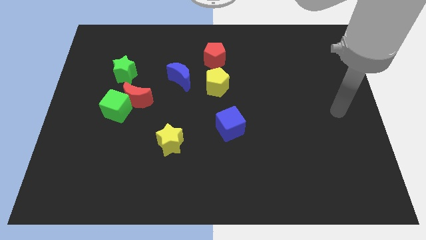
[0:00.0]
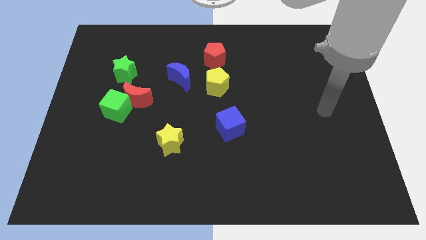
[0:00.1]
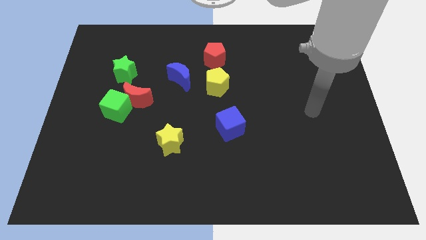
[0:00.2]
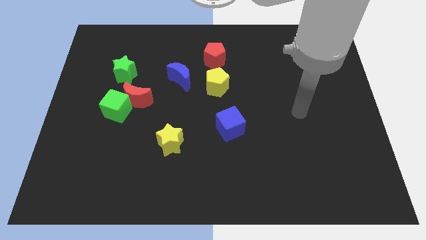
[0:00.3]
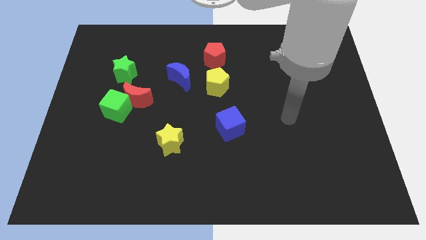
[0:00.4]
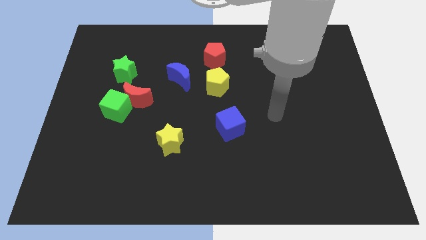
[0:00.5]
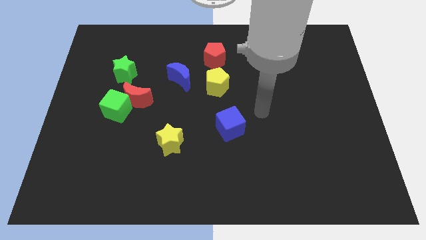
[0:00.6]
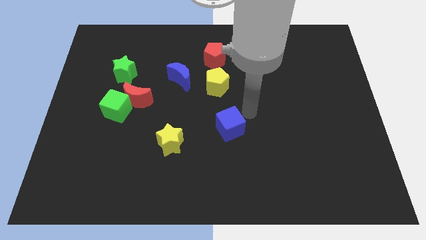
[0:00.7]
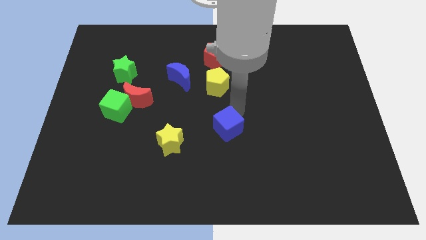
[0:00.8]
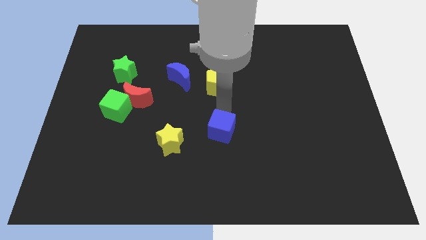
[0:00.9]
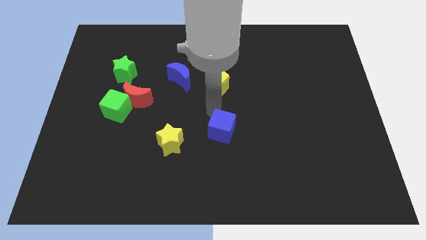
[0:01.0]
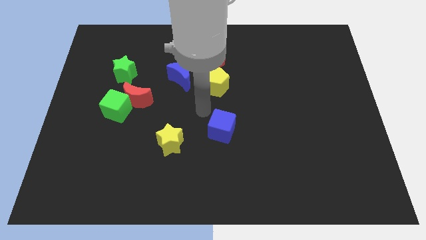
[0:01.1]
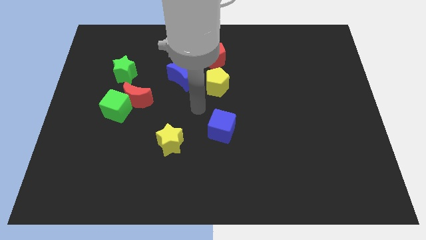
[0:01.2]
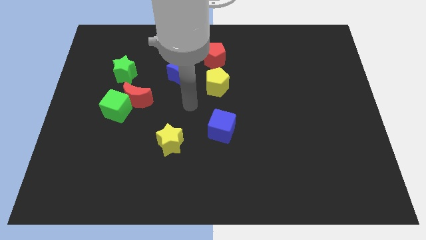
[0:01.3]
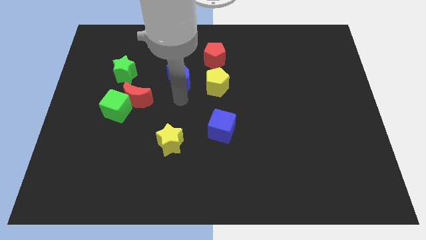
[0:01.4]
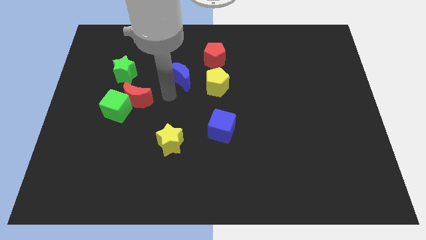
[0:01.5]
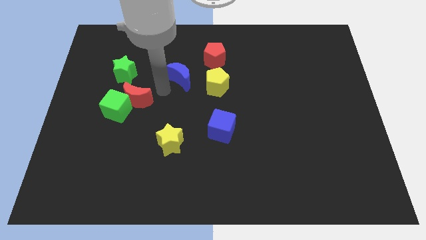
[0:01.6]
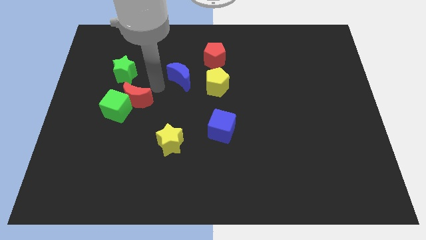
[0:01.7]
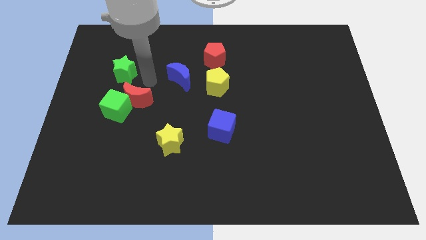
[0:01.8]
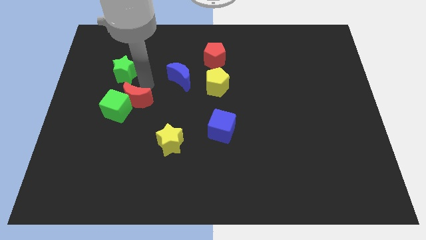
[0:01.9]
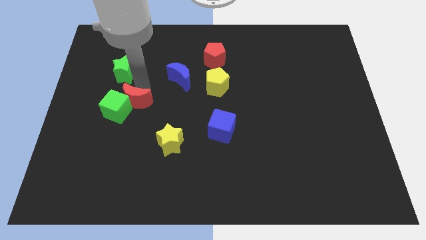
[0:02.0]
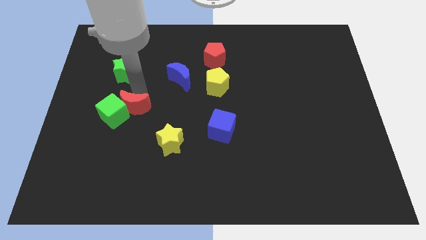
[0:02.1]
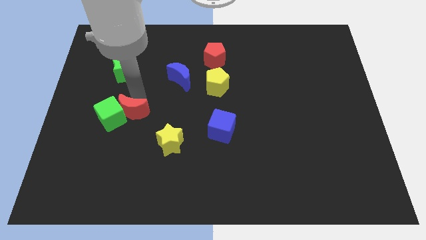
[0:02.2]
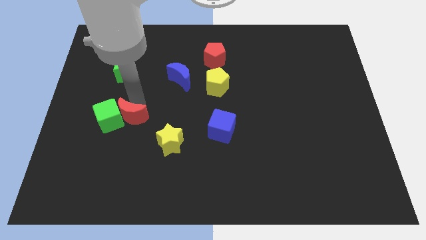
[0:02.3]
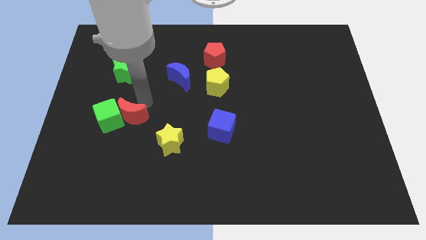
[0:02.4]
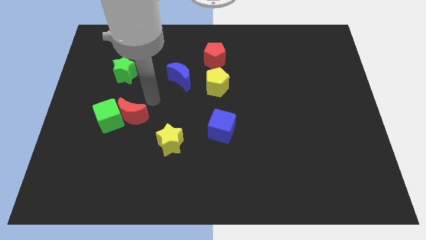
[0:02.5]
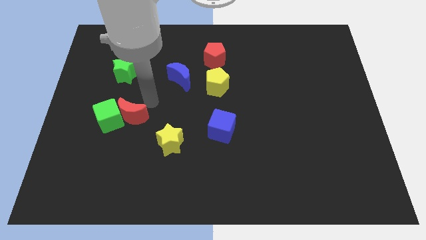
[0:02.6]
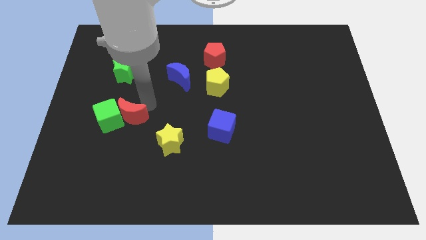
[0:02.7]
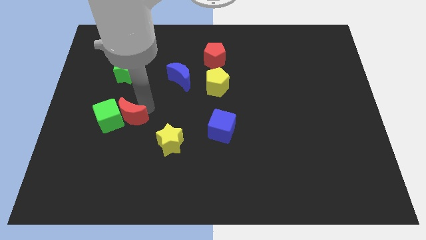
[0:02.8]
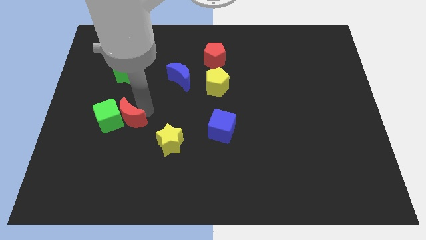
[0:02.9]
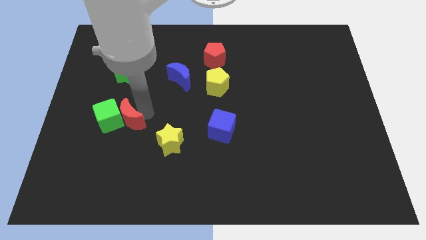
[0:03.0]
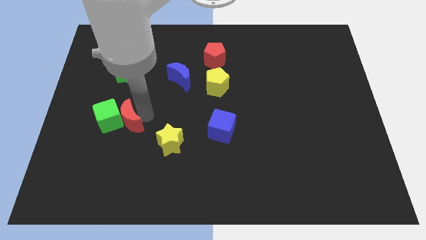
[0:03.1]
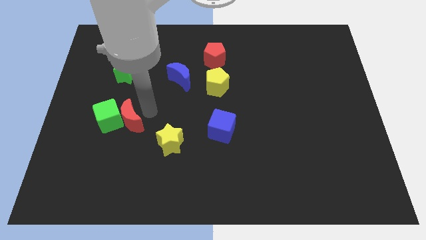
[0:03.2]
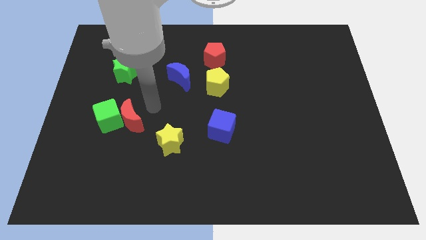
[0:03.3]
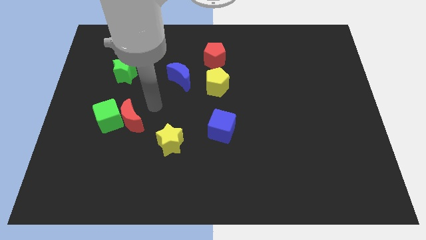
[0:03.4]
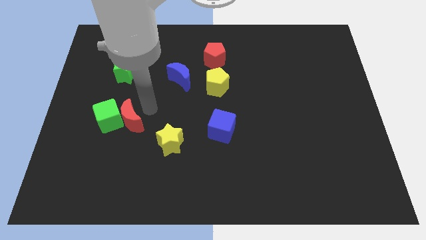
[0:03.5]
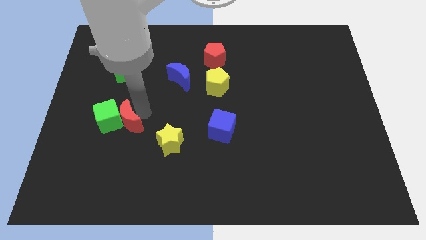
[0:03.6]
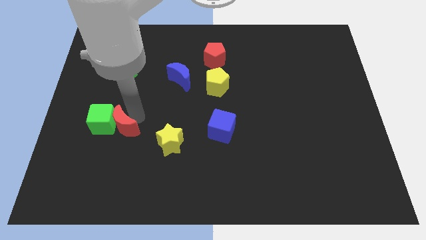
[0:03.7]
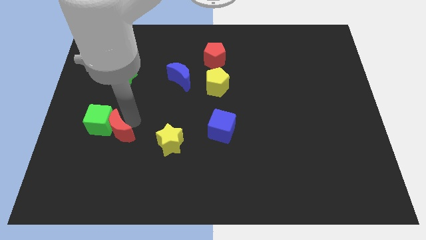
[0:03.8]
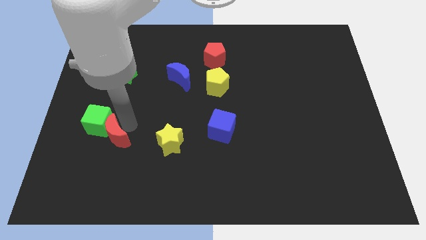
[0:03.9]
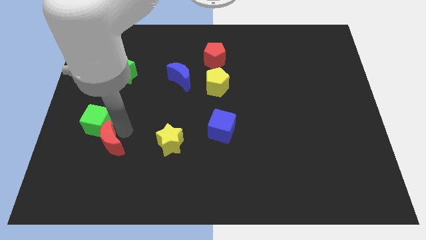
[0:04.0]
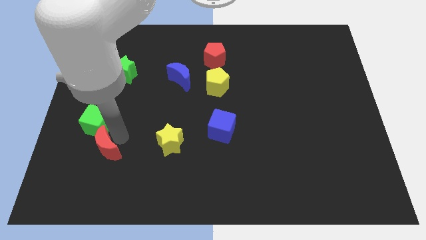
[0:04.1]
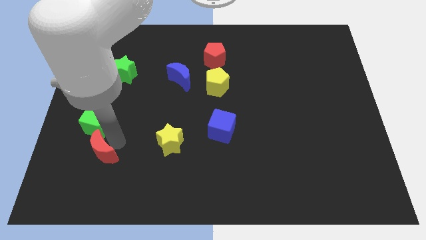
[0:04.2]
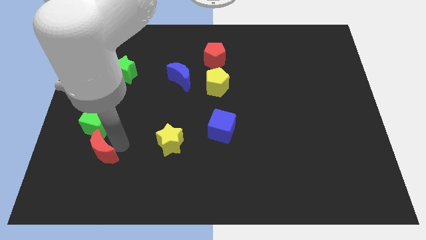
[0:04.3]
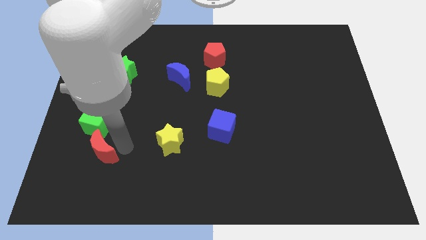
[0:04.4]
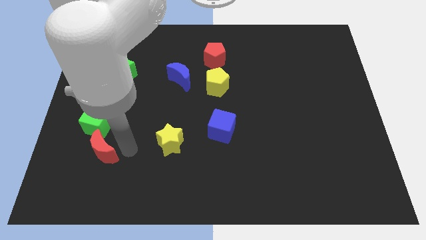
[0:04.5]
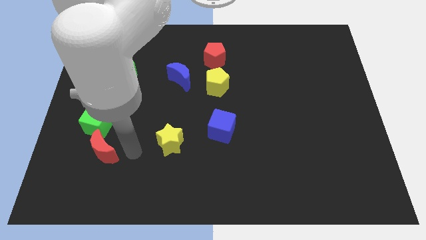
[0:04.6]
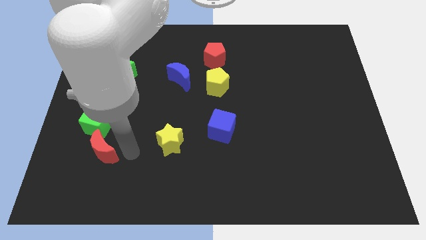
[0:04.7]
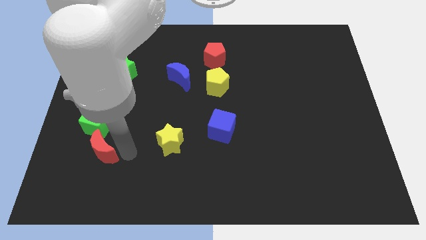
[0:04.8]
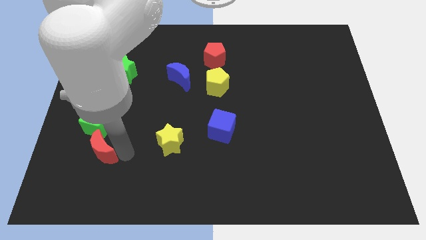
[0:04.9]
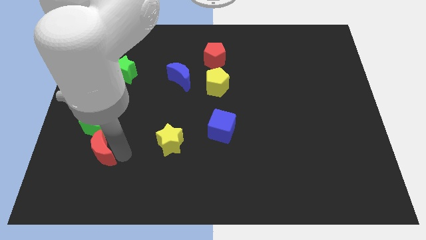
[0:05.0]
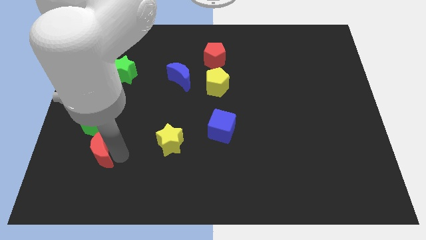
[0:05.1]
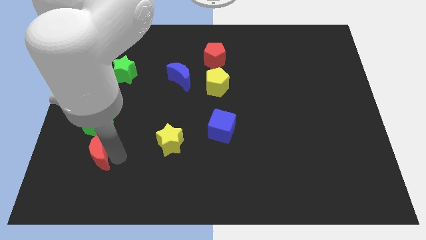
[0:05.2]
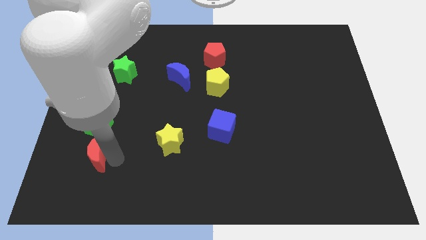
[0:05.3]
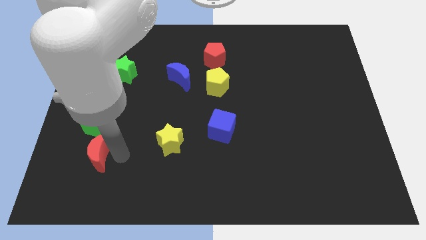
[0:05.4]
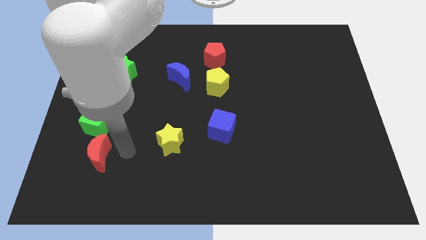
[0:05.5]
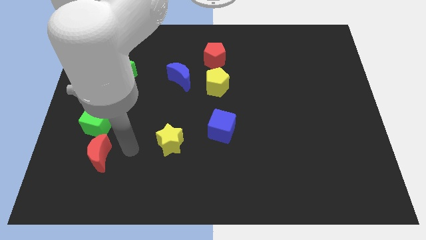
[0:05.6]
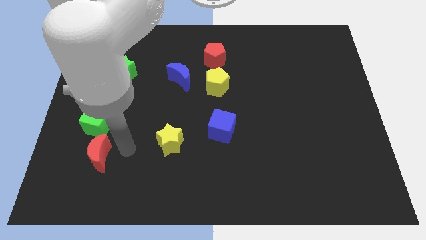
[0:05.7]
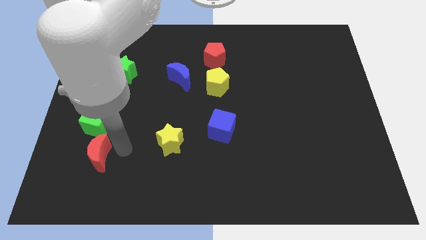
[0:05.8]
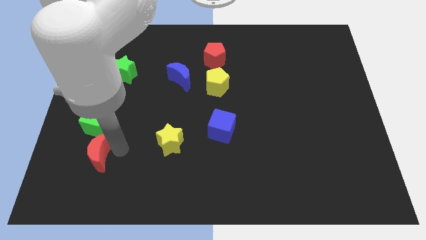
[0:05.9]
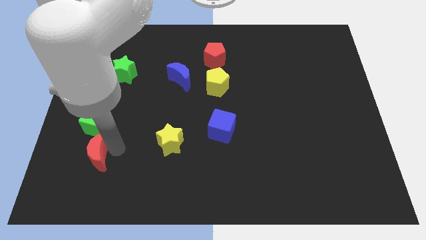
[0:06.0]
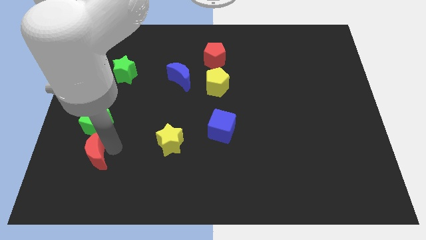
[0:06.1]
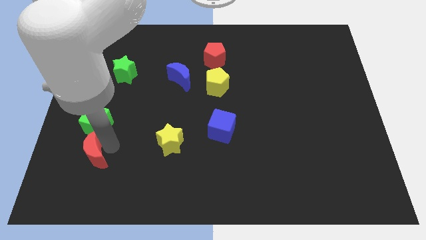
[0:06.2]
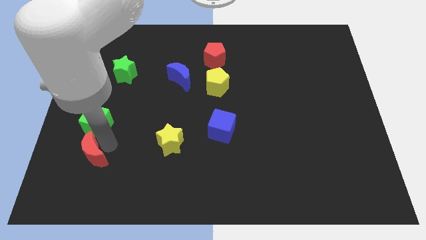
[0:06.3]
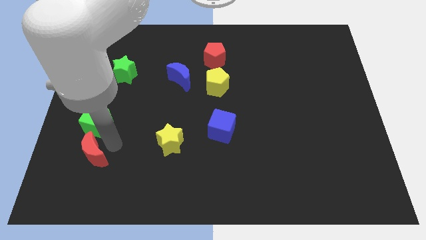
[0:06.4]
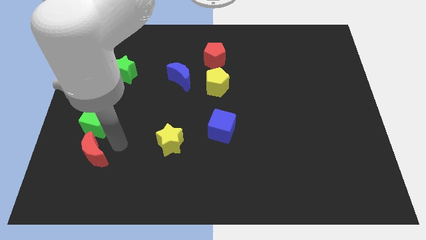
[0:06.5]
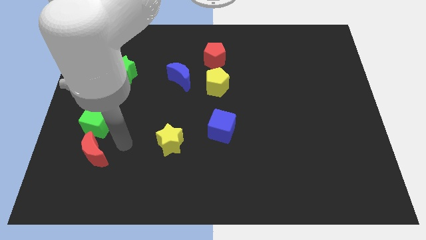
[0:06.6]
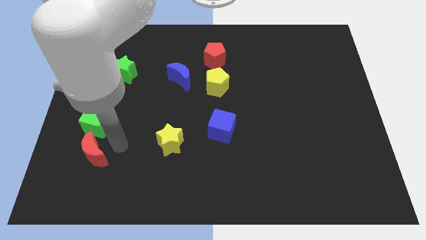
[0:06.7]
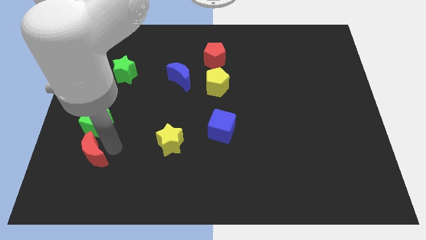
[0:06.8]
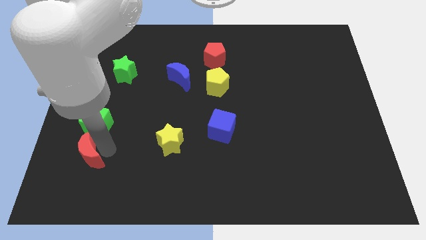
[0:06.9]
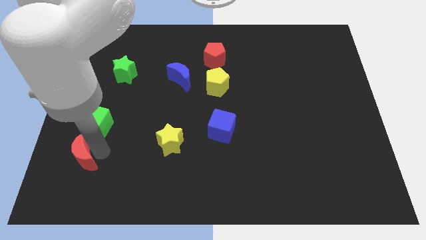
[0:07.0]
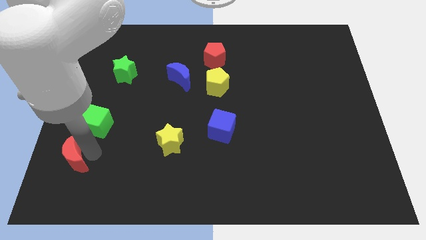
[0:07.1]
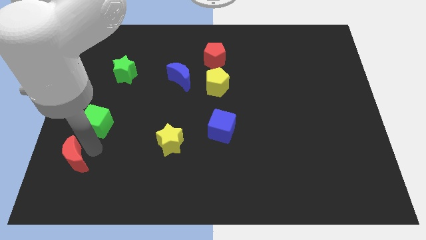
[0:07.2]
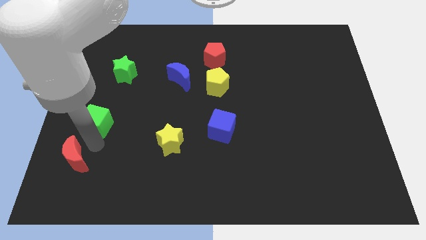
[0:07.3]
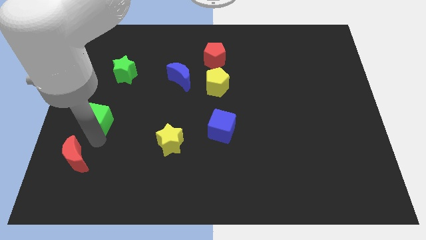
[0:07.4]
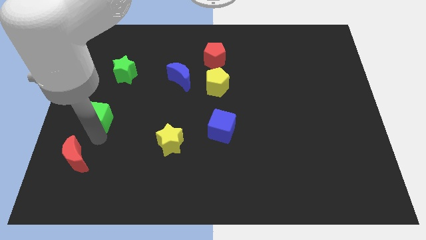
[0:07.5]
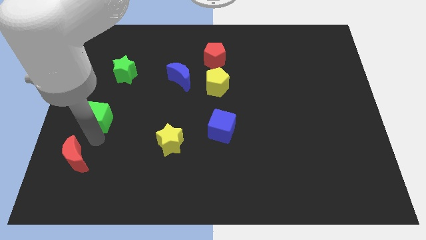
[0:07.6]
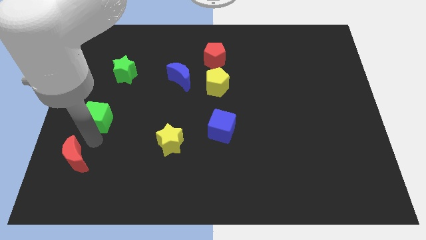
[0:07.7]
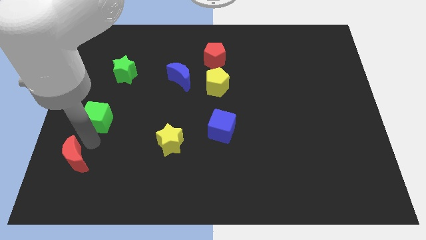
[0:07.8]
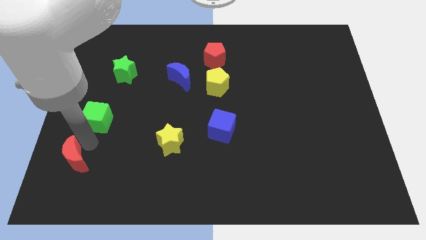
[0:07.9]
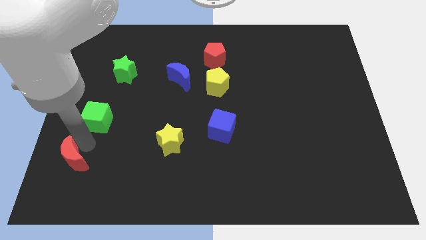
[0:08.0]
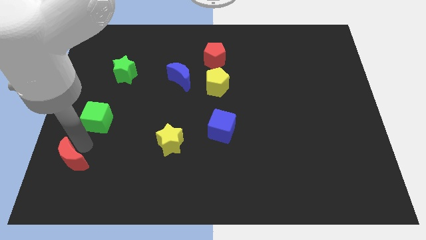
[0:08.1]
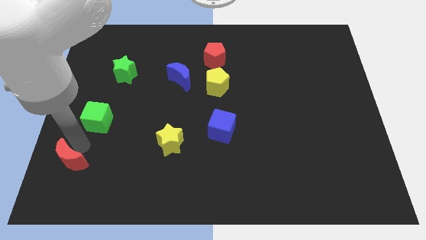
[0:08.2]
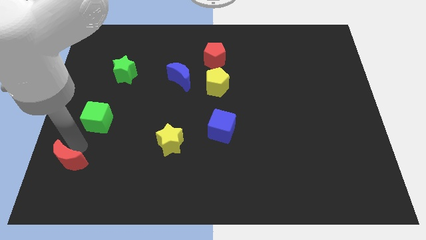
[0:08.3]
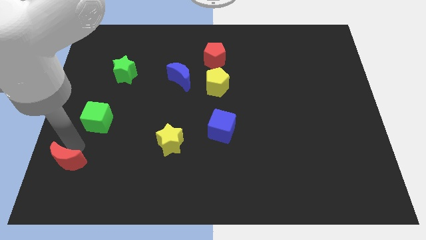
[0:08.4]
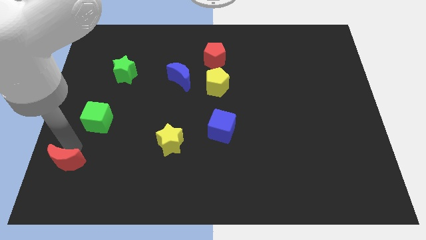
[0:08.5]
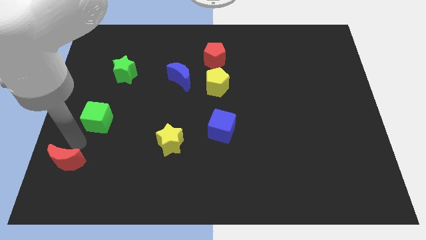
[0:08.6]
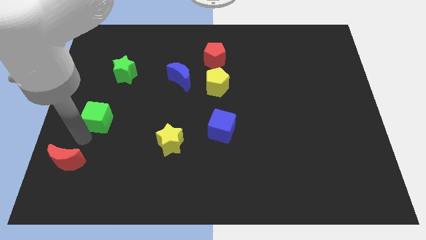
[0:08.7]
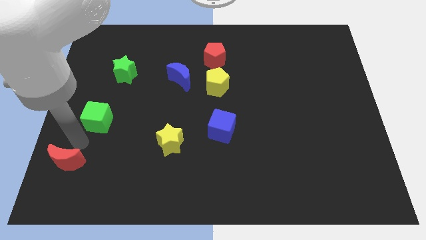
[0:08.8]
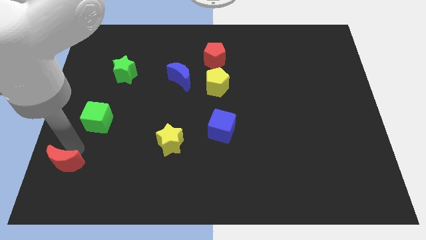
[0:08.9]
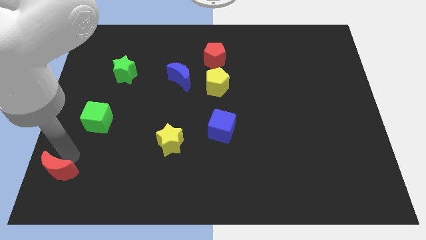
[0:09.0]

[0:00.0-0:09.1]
put the red moon to the bottom left of the board
